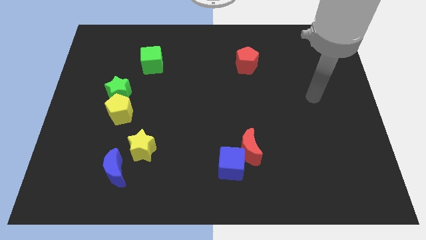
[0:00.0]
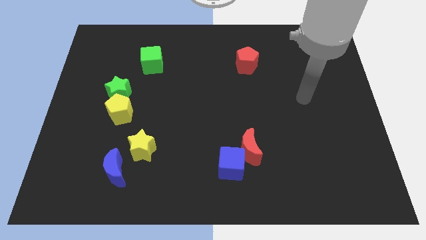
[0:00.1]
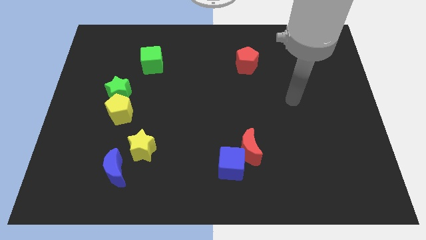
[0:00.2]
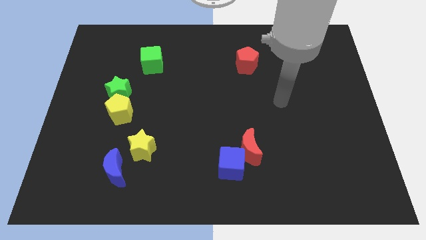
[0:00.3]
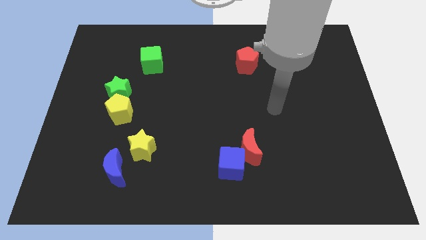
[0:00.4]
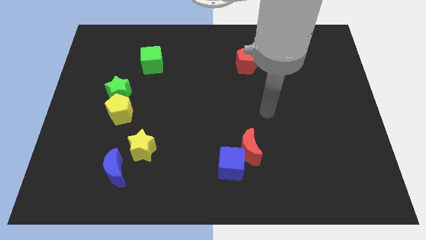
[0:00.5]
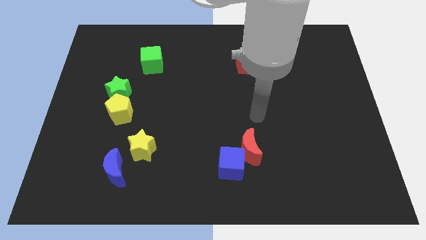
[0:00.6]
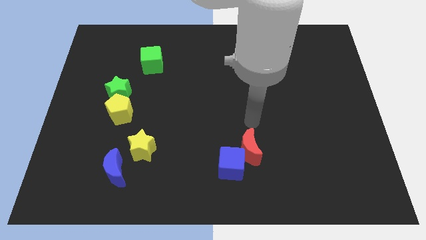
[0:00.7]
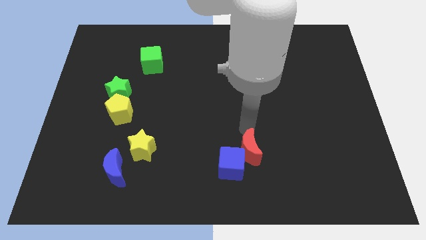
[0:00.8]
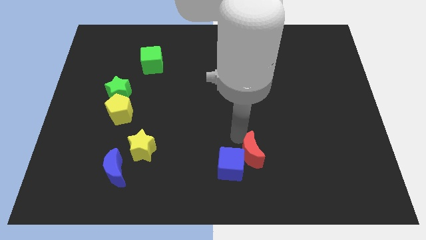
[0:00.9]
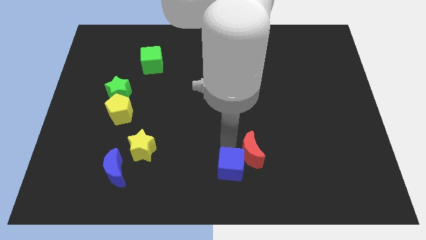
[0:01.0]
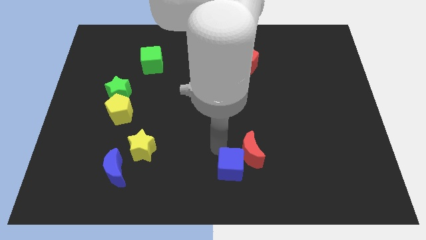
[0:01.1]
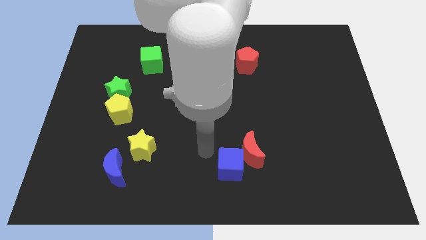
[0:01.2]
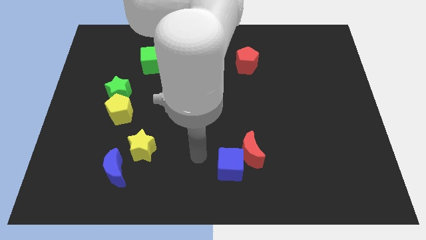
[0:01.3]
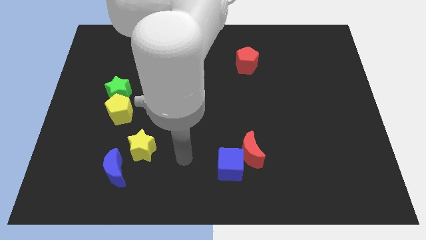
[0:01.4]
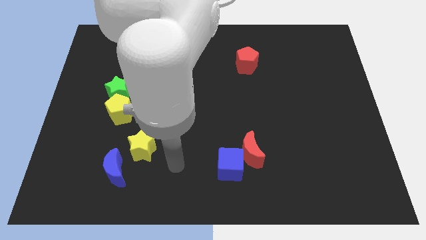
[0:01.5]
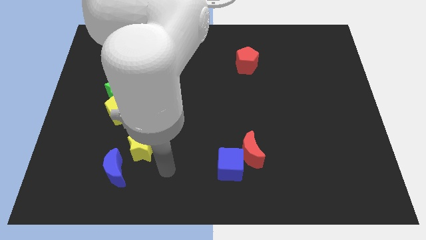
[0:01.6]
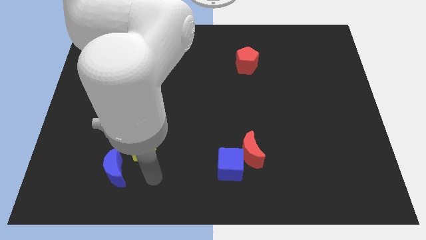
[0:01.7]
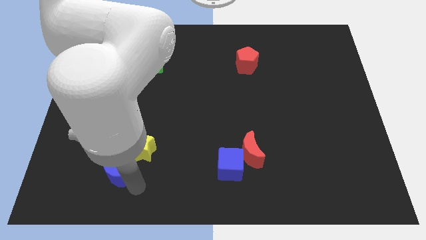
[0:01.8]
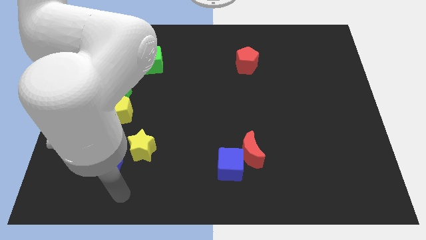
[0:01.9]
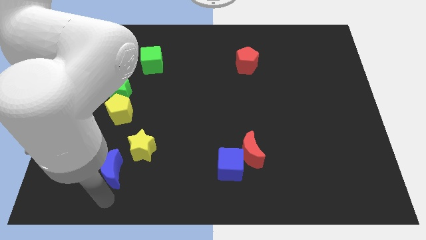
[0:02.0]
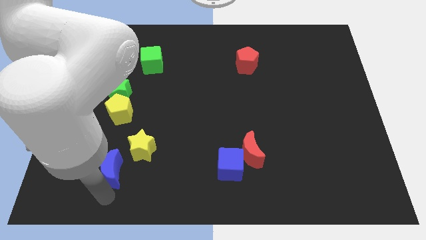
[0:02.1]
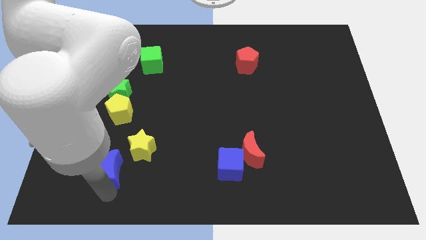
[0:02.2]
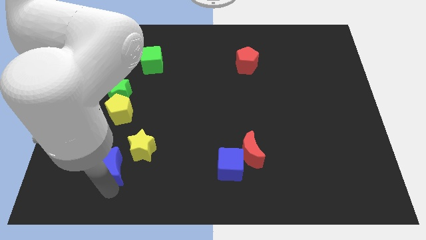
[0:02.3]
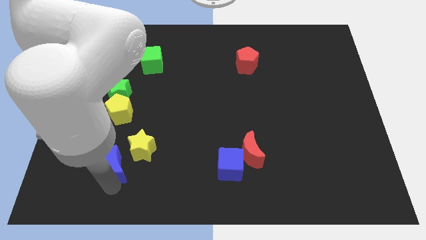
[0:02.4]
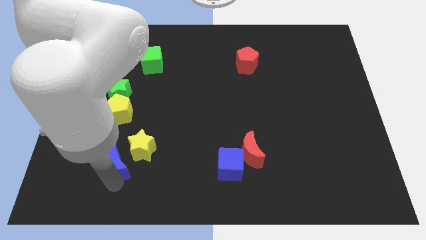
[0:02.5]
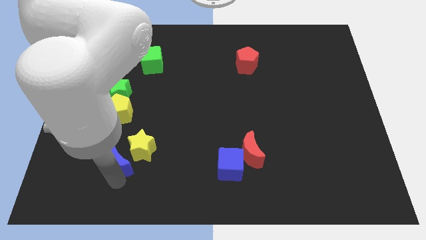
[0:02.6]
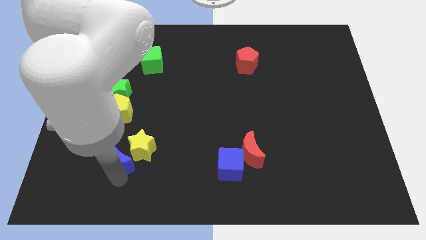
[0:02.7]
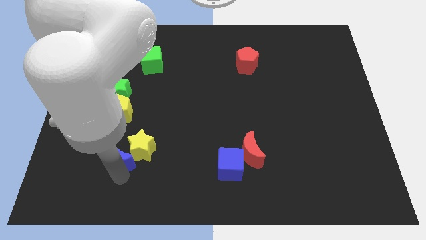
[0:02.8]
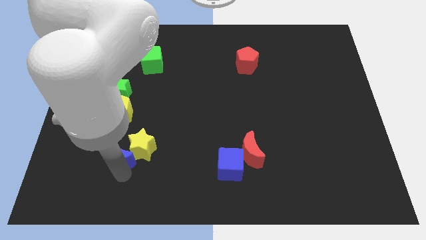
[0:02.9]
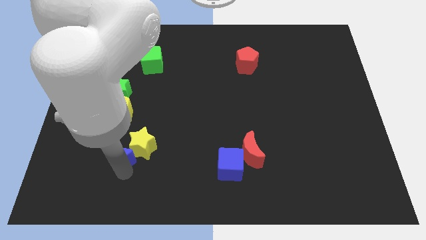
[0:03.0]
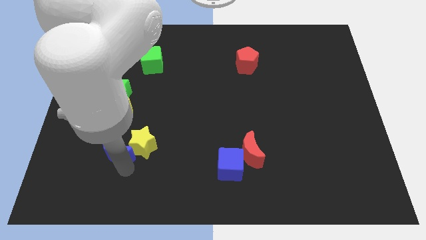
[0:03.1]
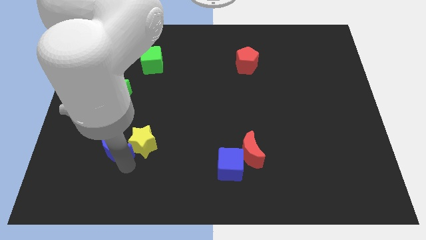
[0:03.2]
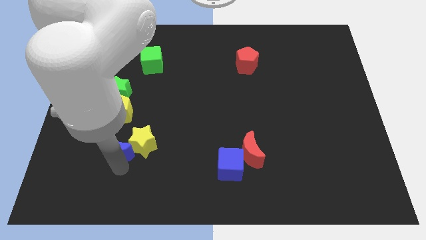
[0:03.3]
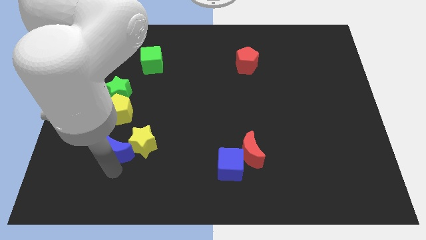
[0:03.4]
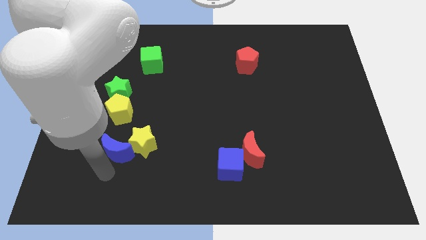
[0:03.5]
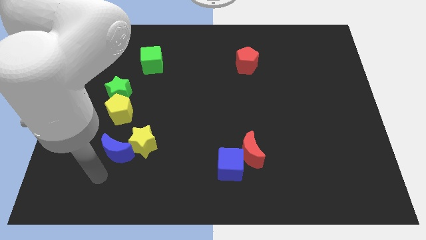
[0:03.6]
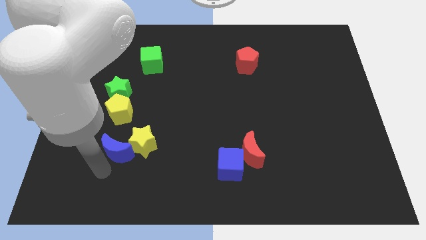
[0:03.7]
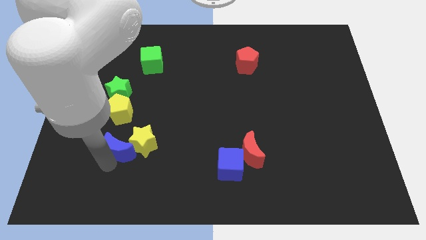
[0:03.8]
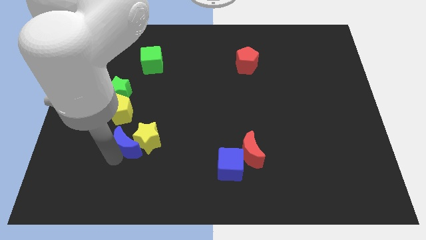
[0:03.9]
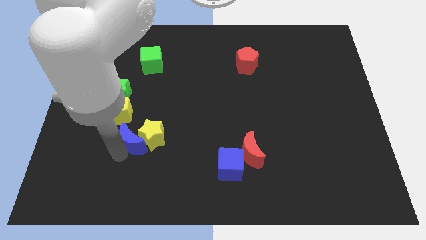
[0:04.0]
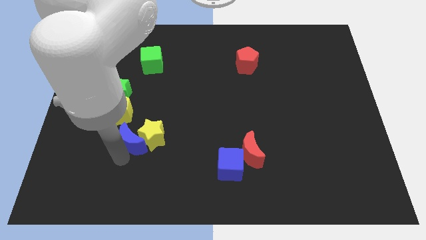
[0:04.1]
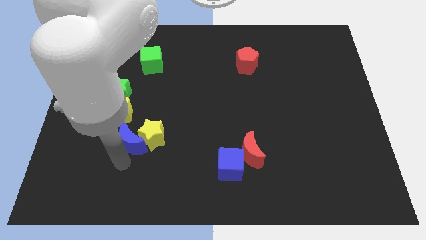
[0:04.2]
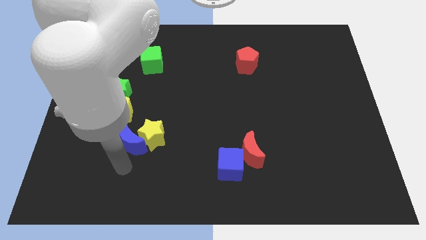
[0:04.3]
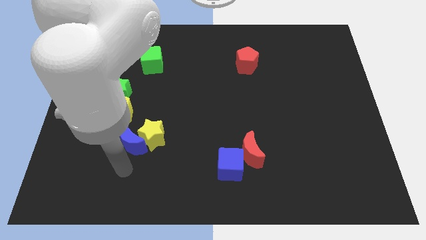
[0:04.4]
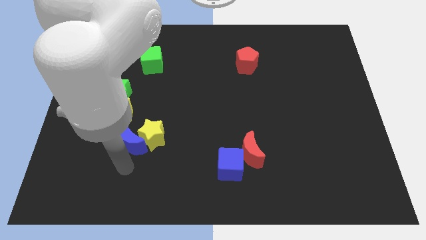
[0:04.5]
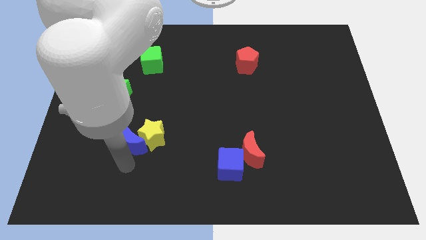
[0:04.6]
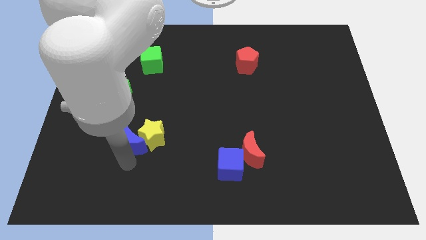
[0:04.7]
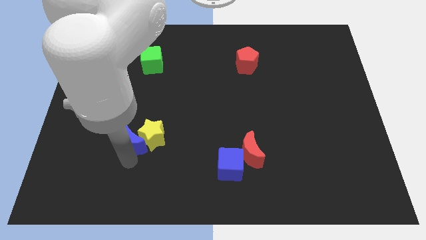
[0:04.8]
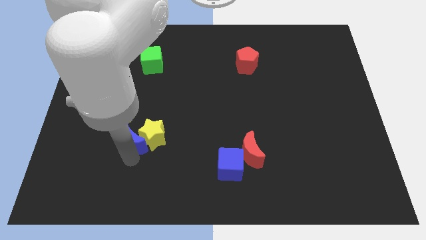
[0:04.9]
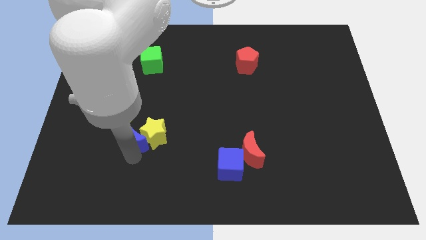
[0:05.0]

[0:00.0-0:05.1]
slightly slide the blue moon upwards and then right

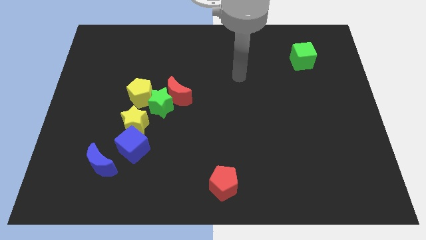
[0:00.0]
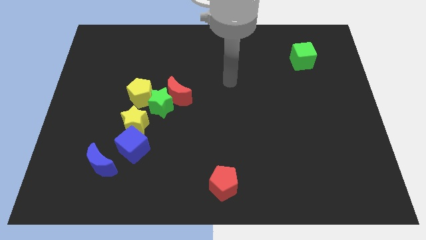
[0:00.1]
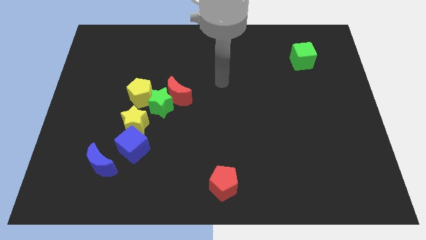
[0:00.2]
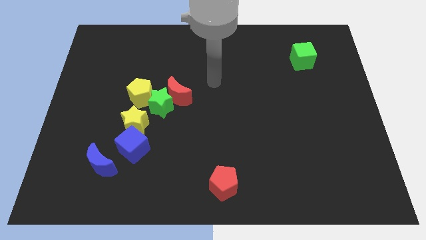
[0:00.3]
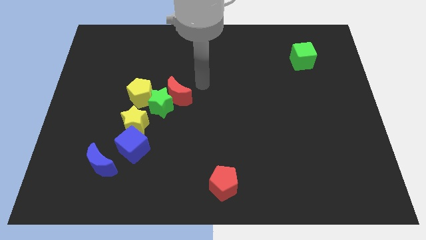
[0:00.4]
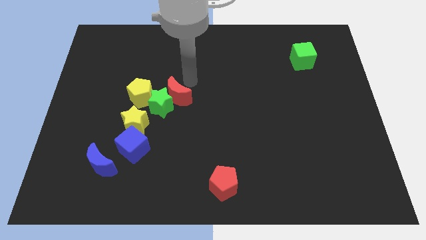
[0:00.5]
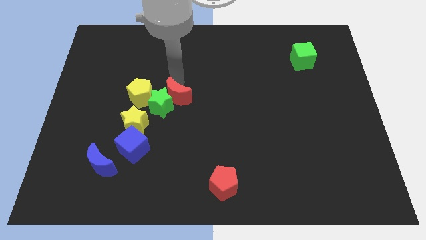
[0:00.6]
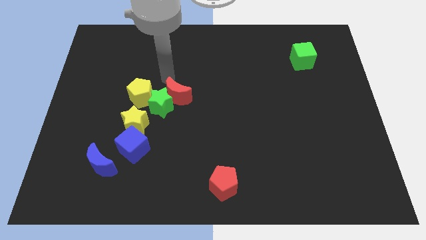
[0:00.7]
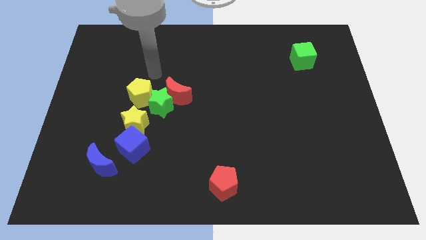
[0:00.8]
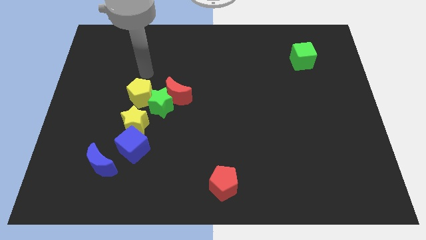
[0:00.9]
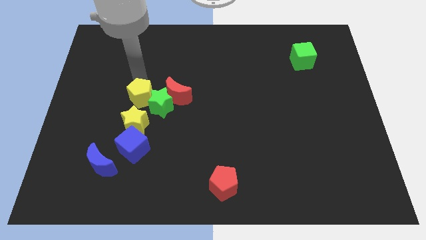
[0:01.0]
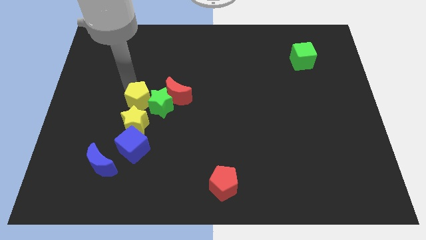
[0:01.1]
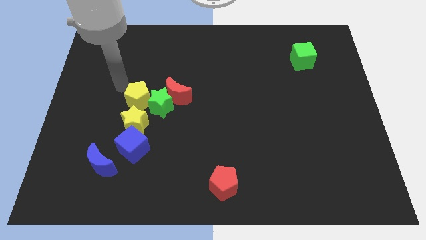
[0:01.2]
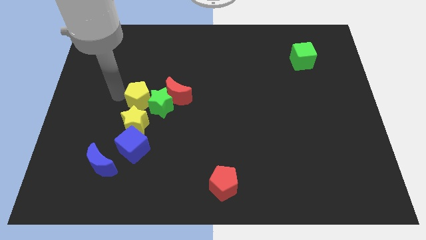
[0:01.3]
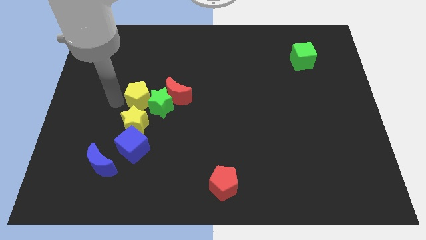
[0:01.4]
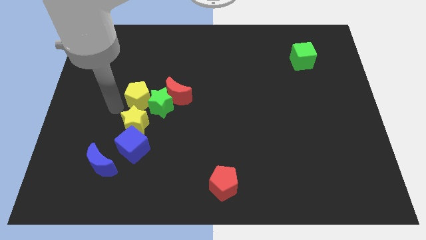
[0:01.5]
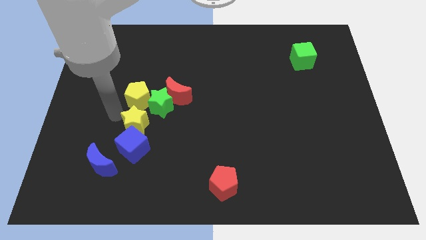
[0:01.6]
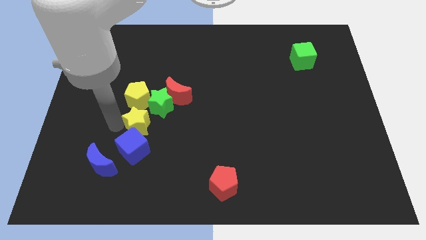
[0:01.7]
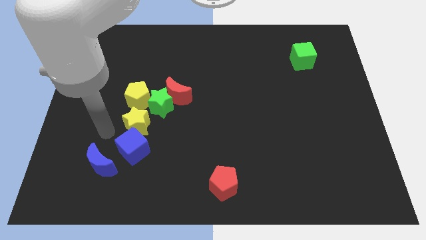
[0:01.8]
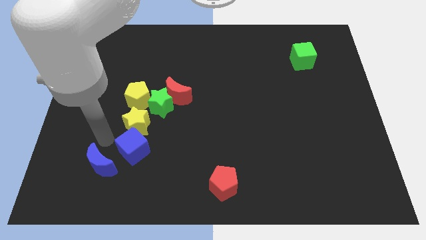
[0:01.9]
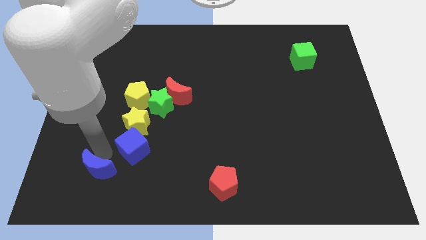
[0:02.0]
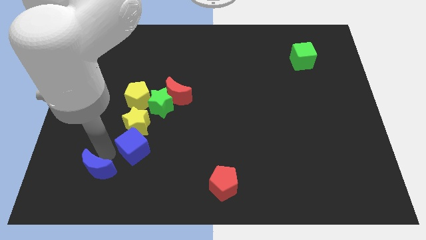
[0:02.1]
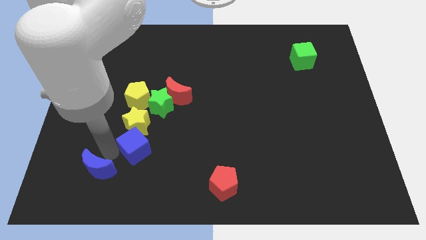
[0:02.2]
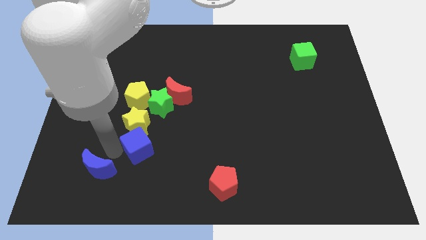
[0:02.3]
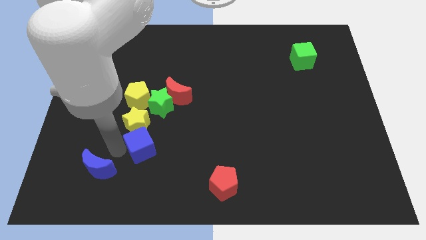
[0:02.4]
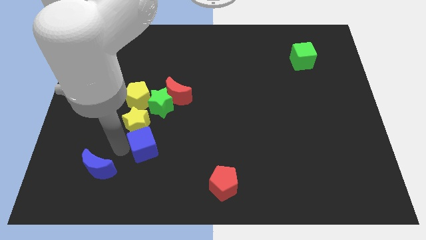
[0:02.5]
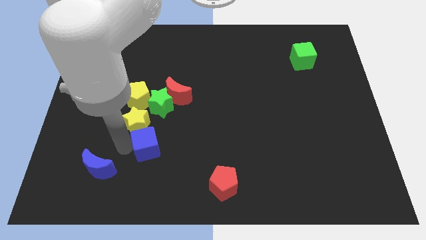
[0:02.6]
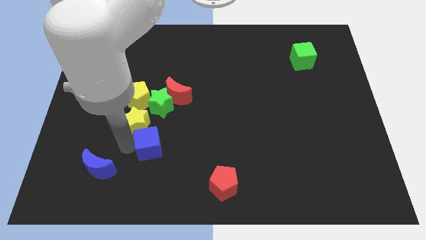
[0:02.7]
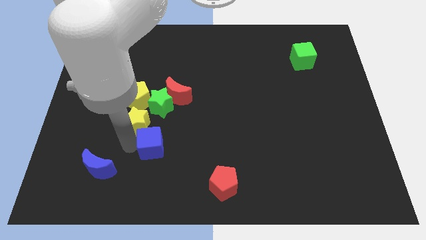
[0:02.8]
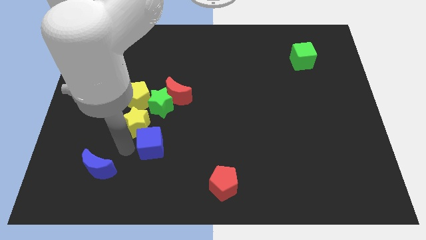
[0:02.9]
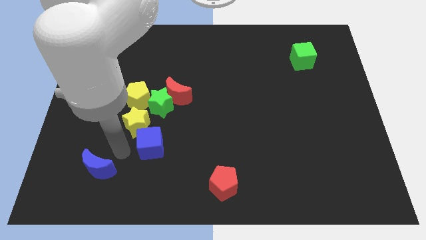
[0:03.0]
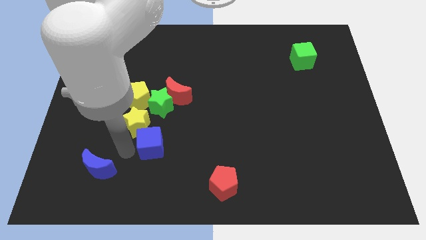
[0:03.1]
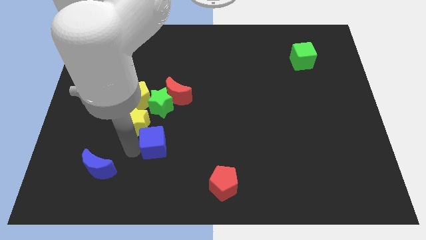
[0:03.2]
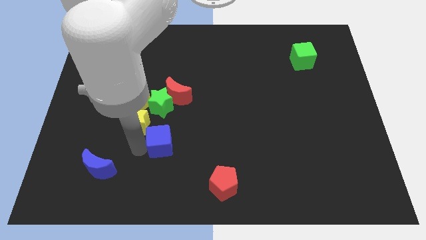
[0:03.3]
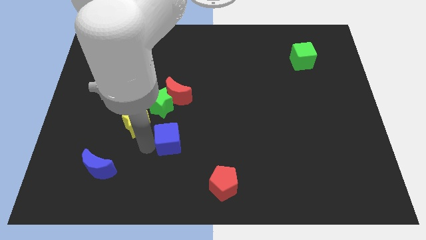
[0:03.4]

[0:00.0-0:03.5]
slide the blue cube right slightly
